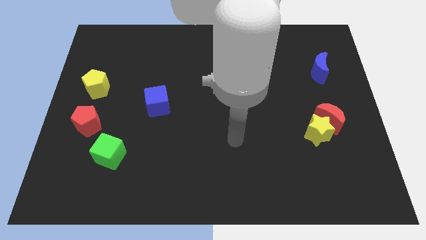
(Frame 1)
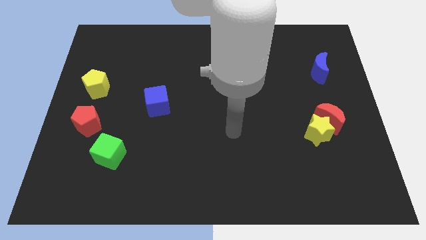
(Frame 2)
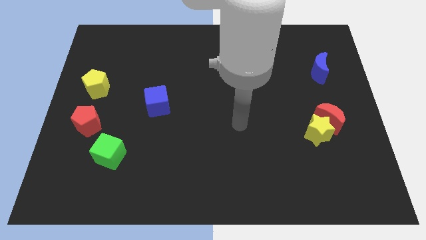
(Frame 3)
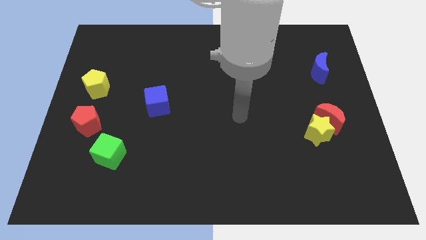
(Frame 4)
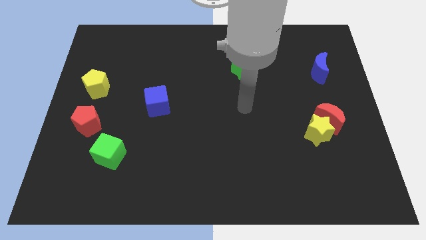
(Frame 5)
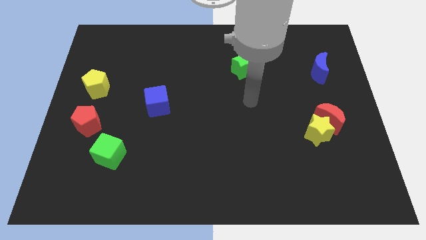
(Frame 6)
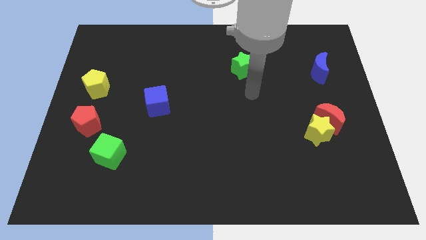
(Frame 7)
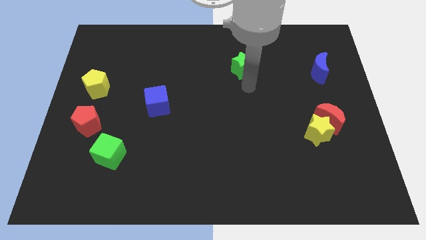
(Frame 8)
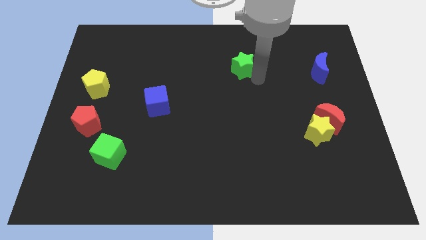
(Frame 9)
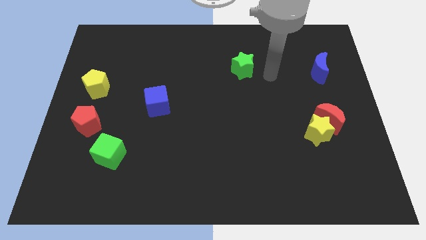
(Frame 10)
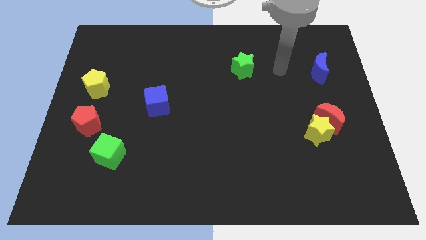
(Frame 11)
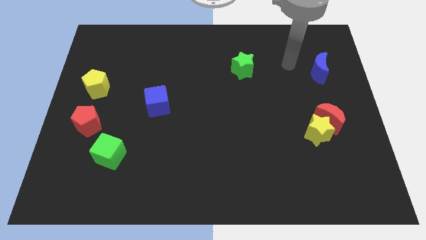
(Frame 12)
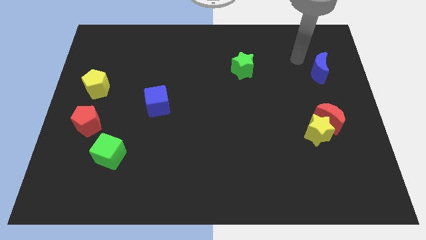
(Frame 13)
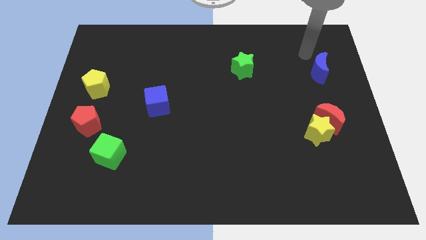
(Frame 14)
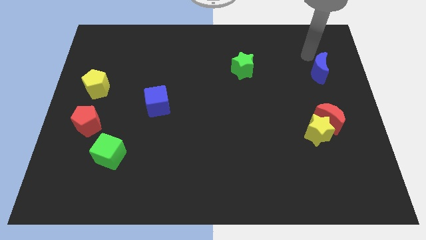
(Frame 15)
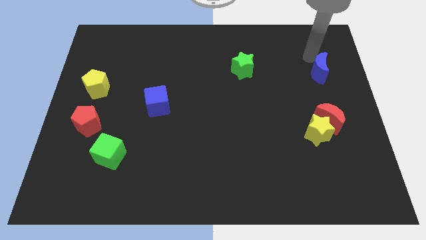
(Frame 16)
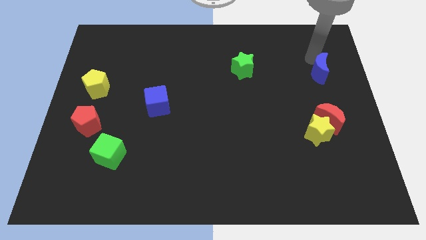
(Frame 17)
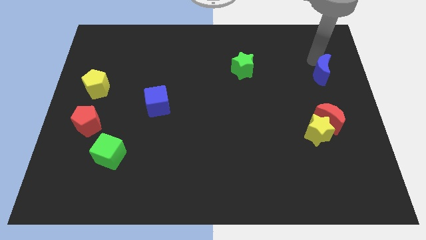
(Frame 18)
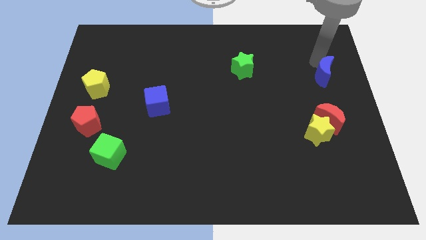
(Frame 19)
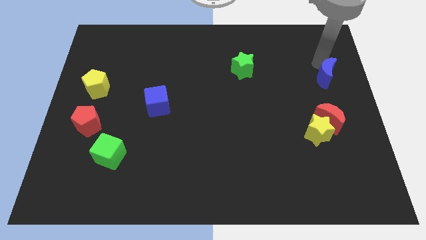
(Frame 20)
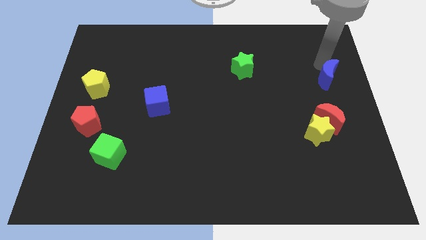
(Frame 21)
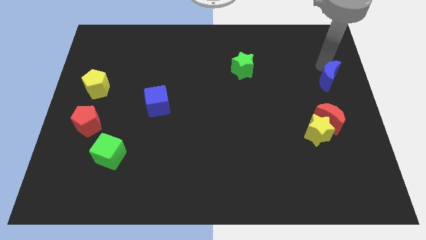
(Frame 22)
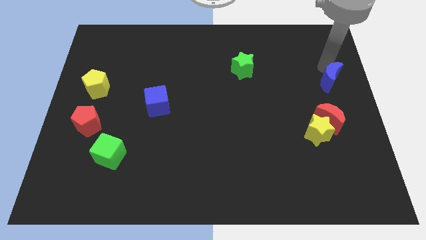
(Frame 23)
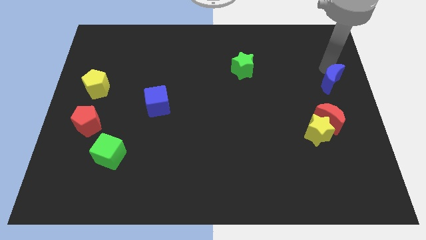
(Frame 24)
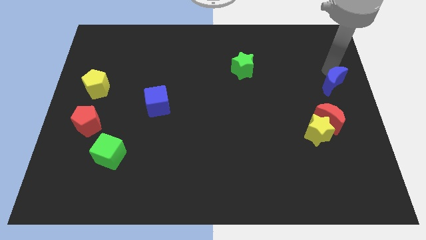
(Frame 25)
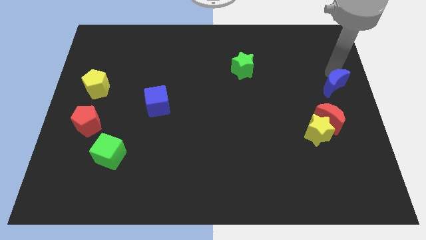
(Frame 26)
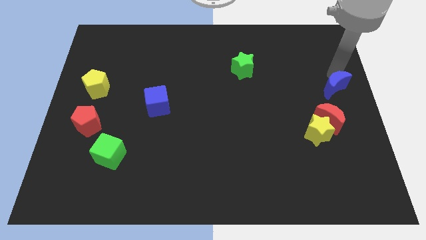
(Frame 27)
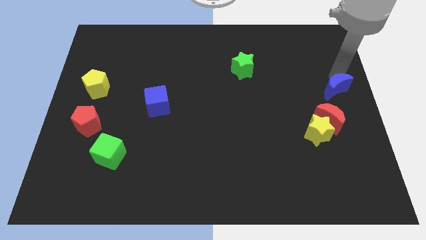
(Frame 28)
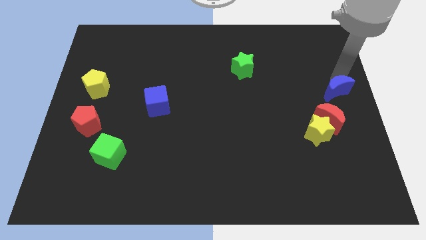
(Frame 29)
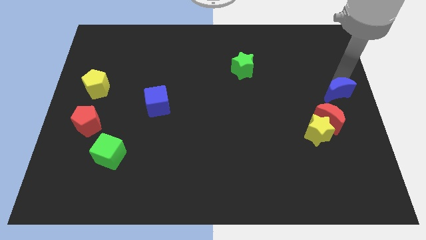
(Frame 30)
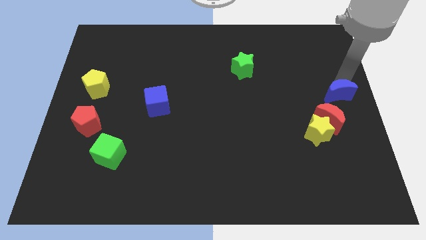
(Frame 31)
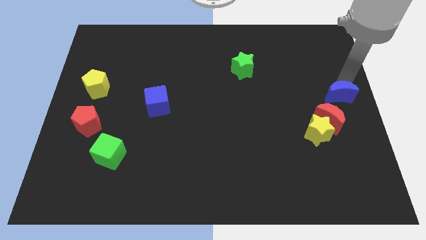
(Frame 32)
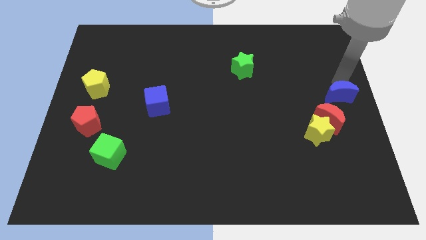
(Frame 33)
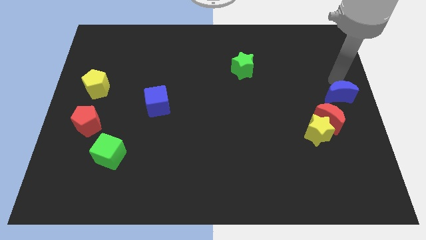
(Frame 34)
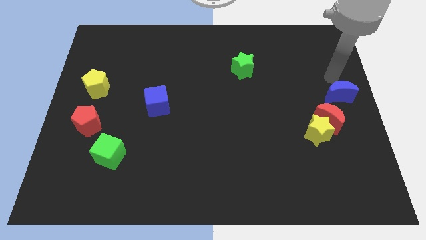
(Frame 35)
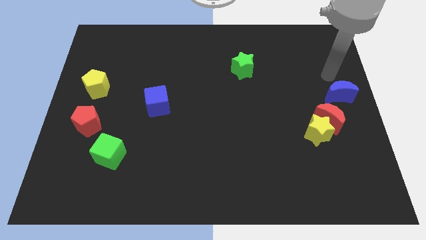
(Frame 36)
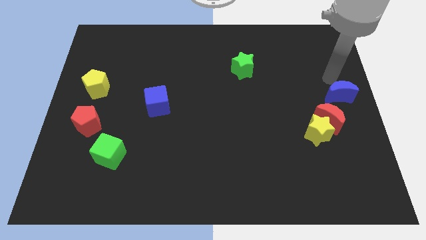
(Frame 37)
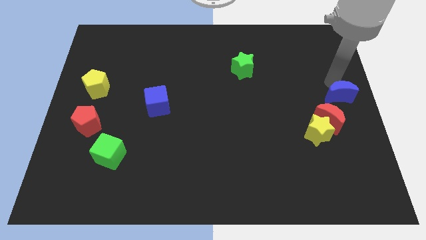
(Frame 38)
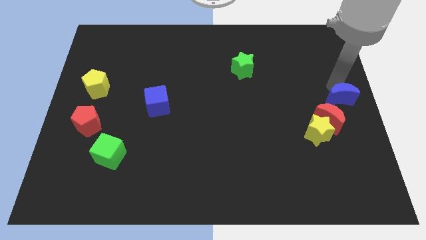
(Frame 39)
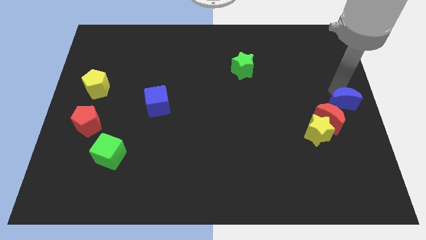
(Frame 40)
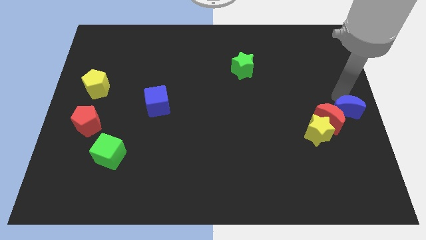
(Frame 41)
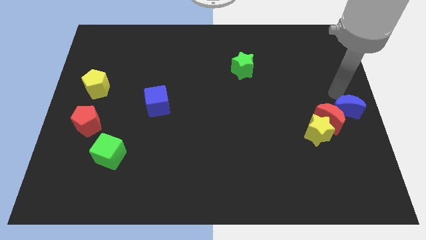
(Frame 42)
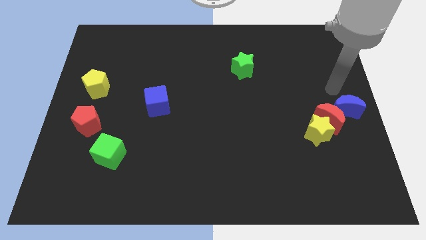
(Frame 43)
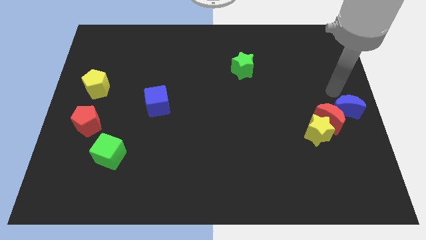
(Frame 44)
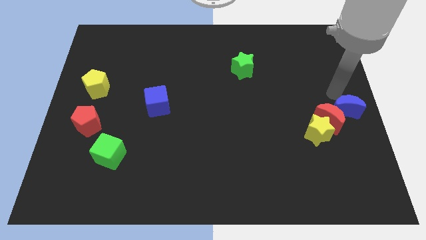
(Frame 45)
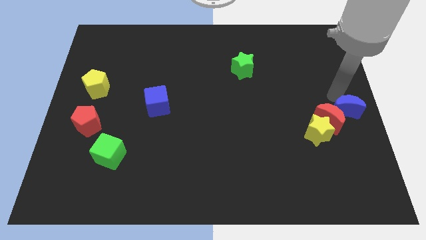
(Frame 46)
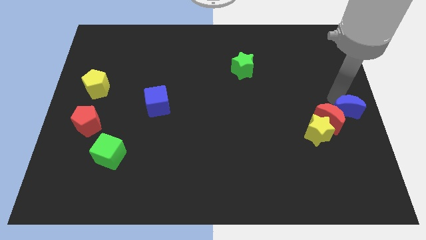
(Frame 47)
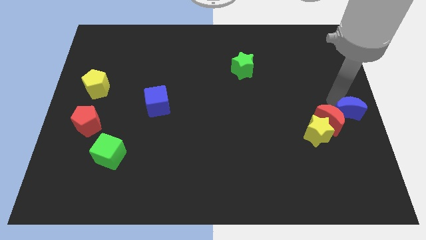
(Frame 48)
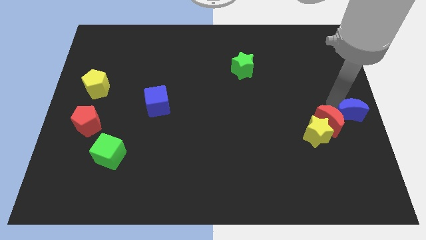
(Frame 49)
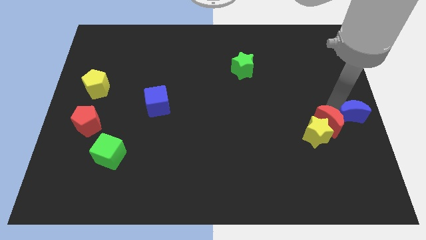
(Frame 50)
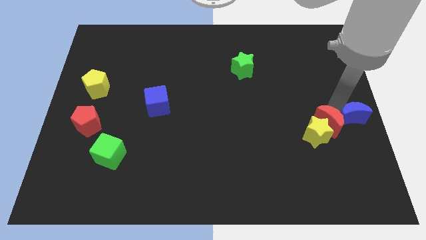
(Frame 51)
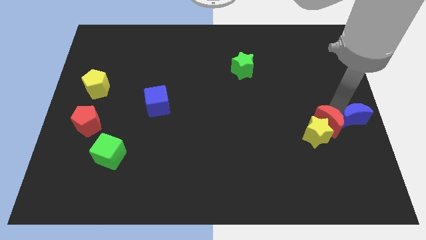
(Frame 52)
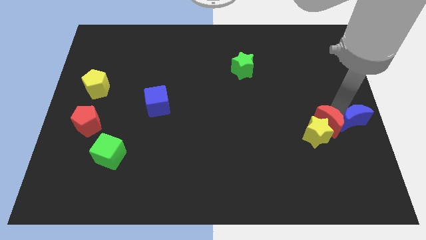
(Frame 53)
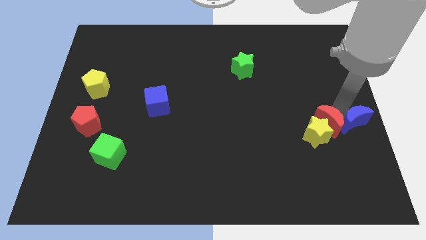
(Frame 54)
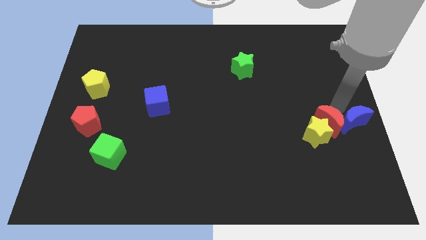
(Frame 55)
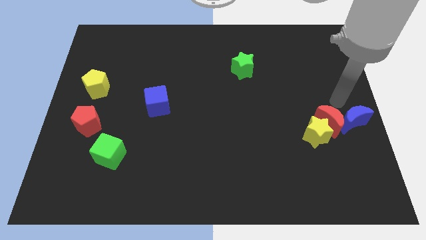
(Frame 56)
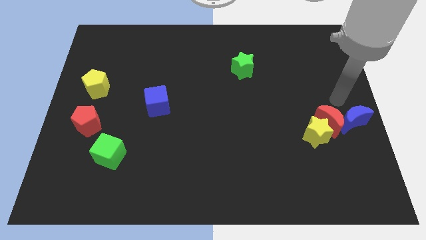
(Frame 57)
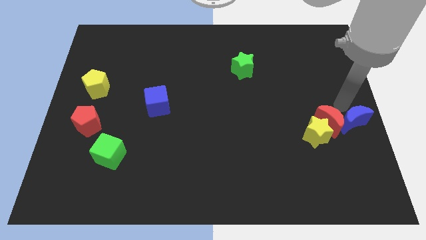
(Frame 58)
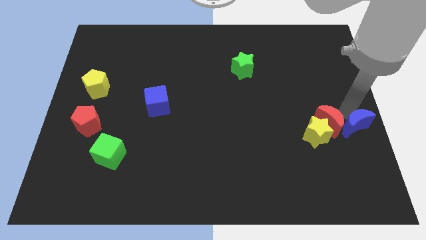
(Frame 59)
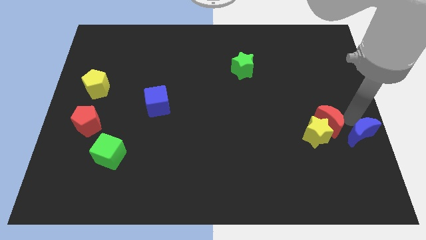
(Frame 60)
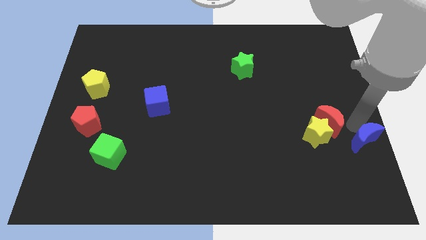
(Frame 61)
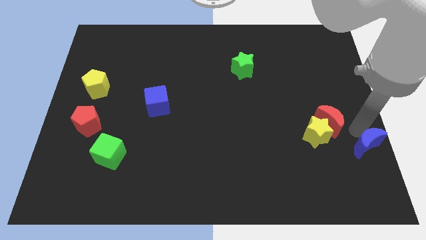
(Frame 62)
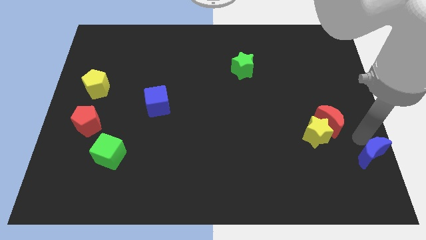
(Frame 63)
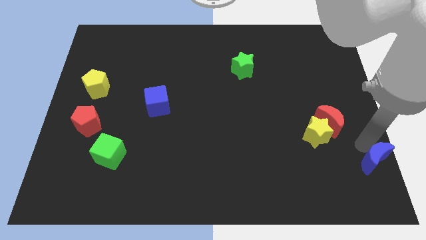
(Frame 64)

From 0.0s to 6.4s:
slide the blue moon to the bottom right of the board

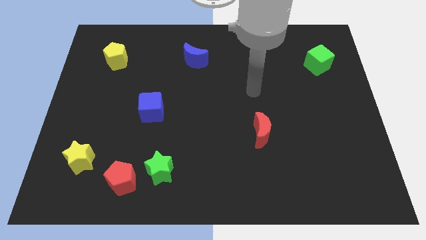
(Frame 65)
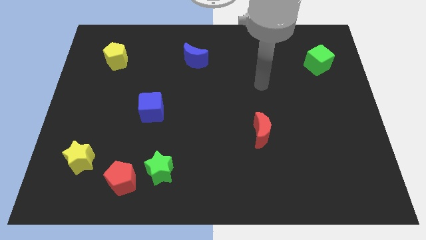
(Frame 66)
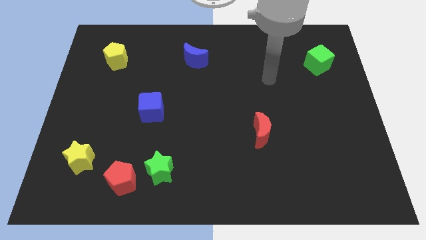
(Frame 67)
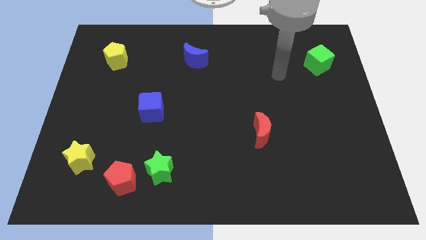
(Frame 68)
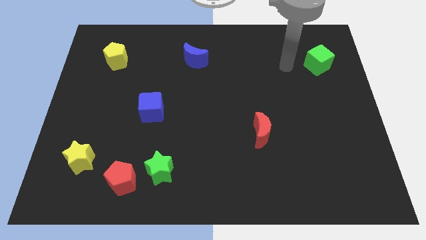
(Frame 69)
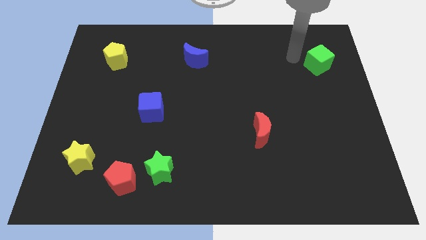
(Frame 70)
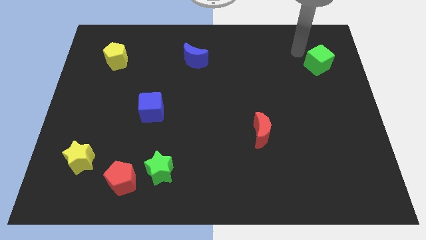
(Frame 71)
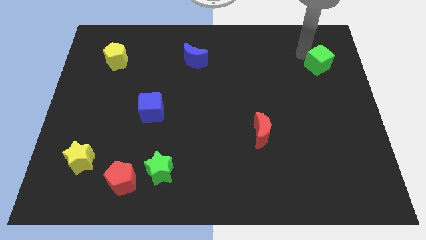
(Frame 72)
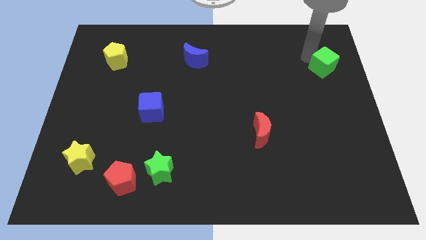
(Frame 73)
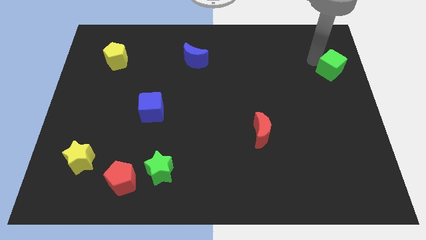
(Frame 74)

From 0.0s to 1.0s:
slide the green cube to the right side
